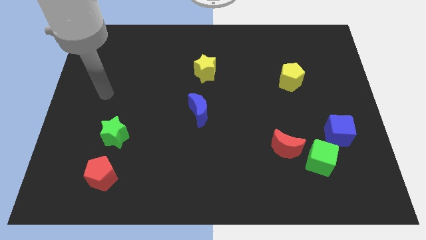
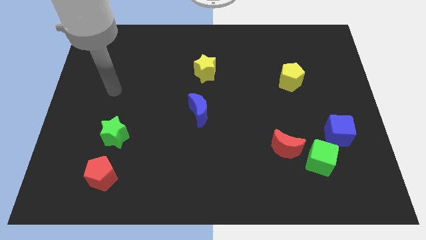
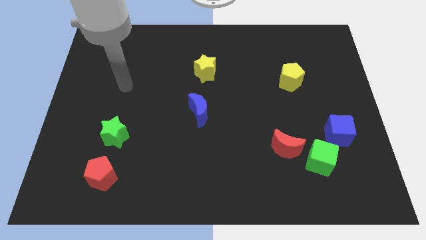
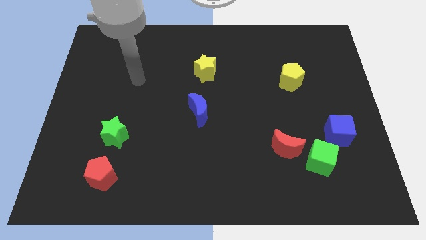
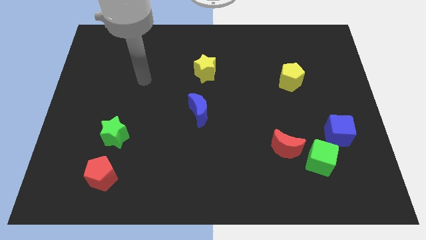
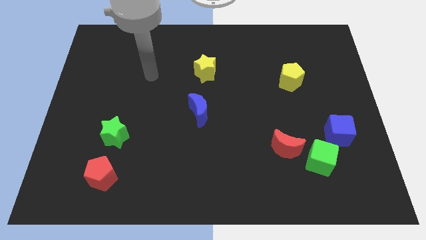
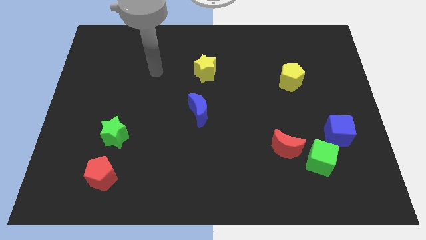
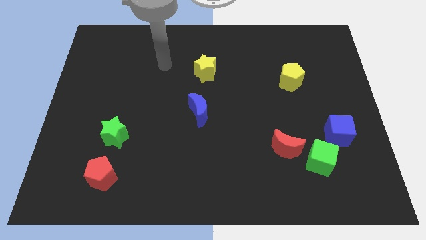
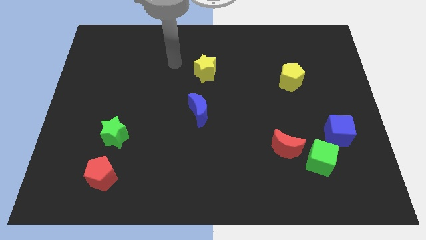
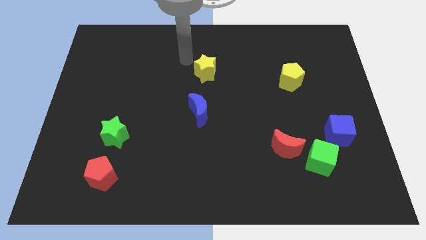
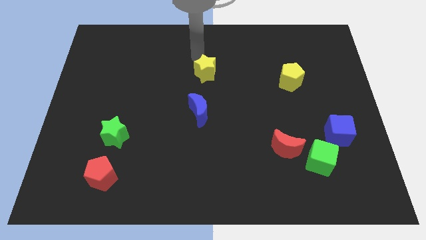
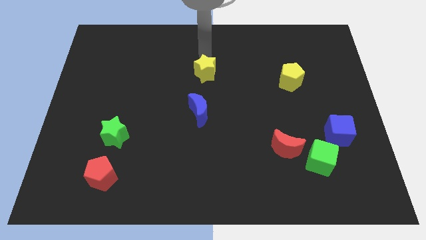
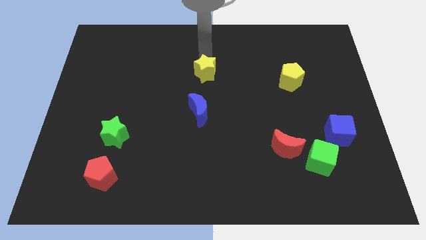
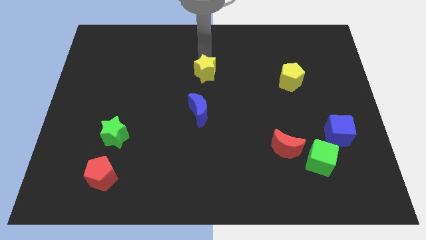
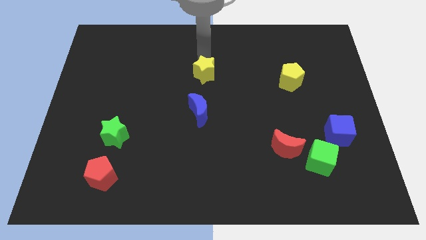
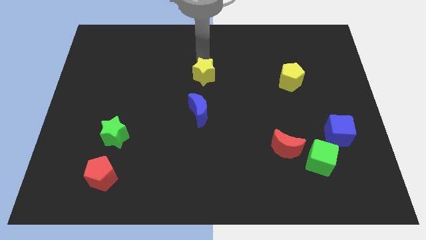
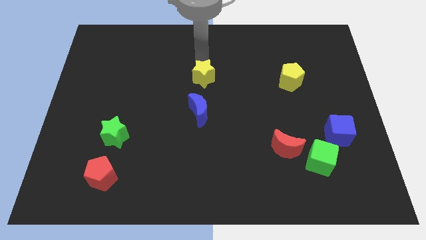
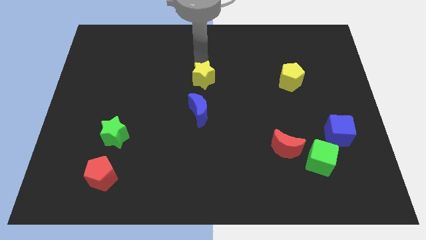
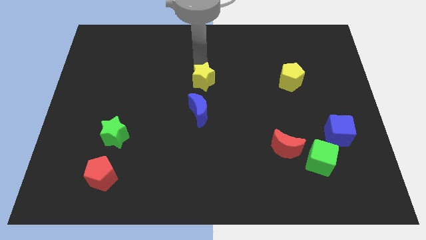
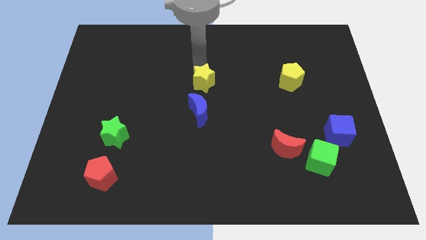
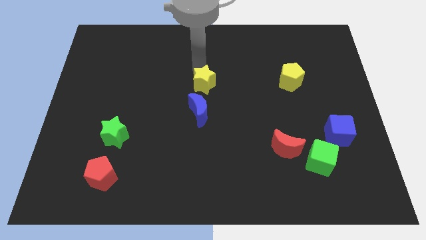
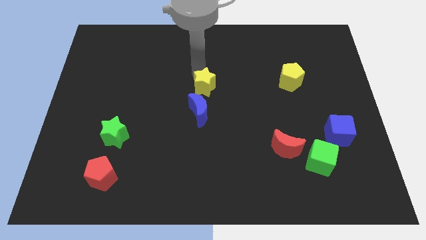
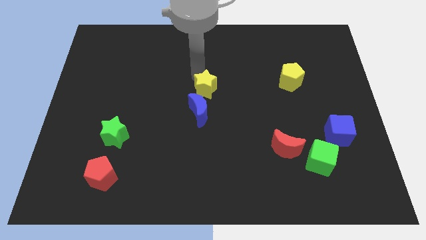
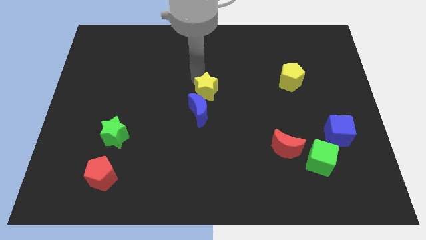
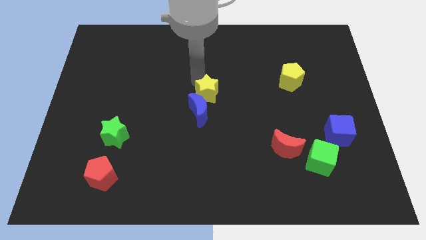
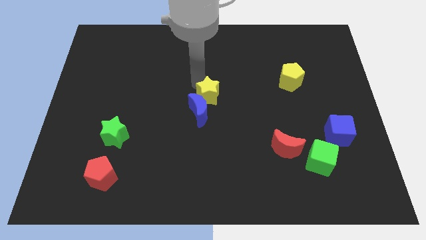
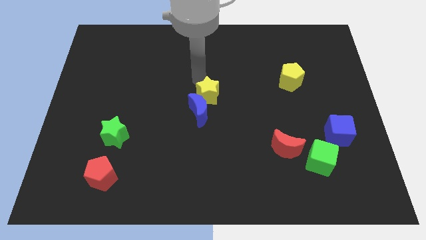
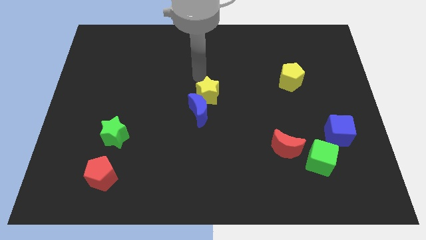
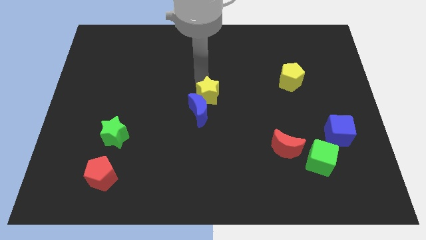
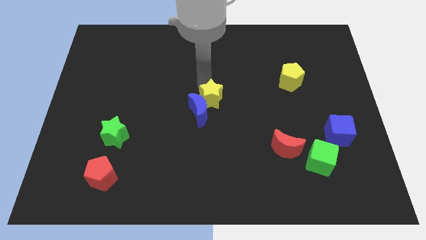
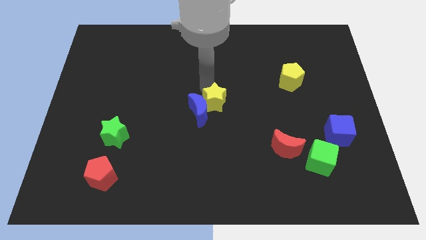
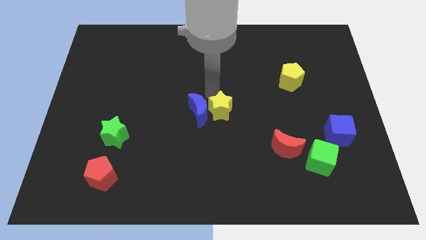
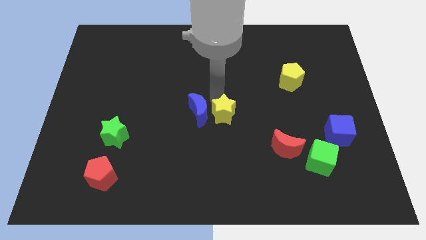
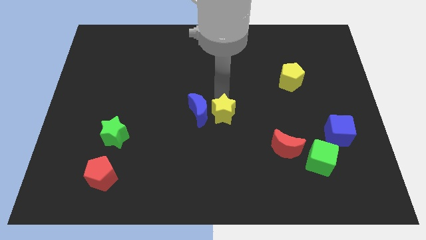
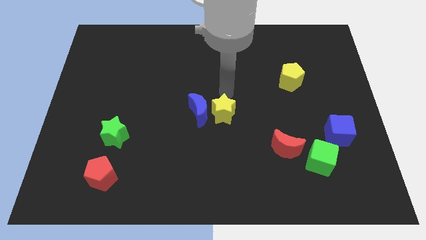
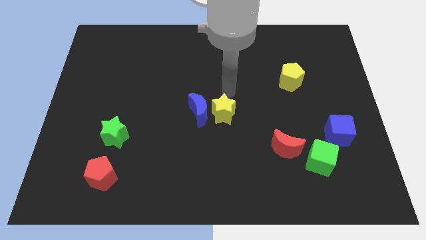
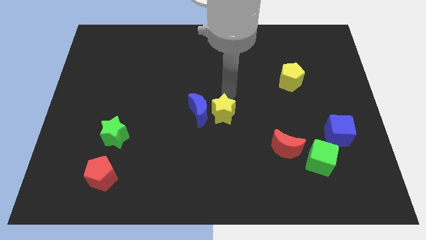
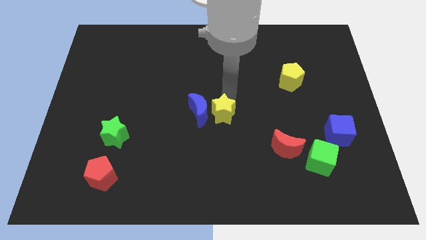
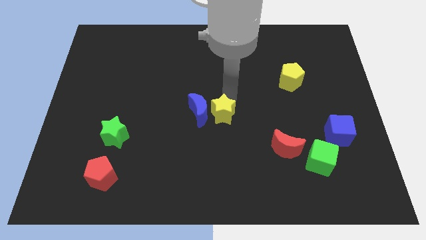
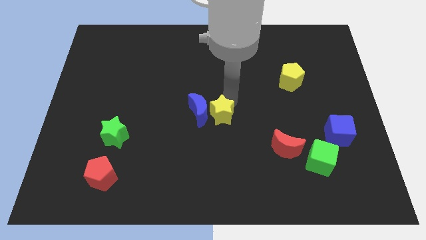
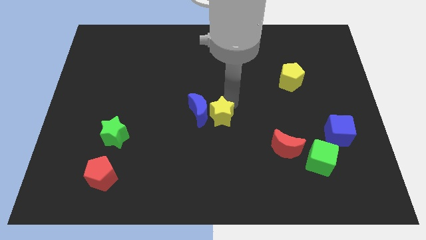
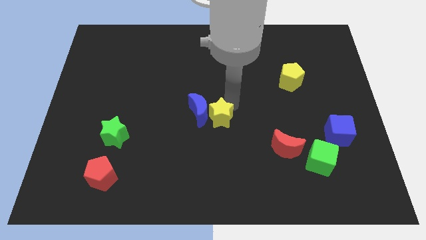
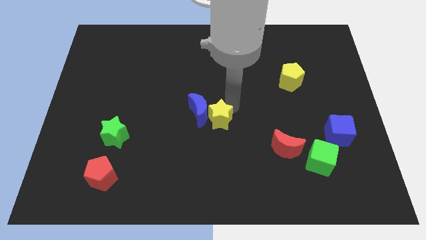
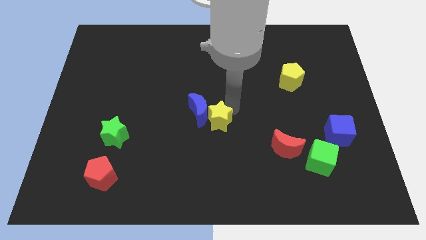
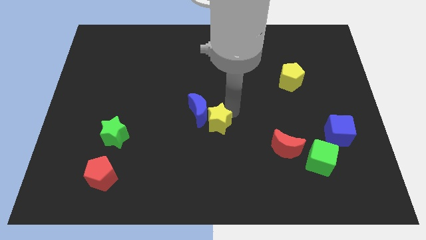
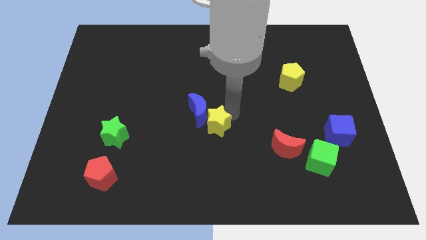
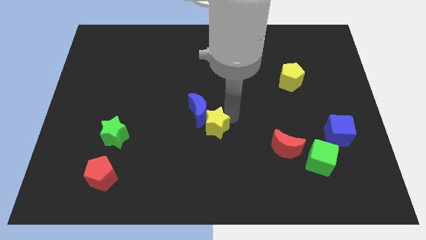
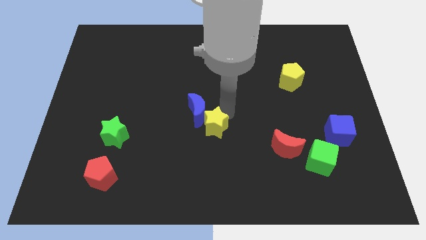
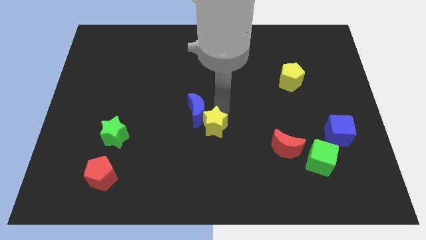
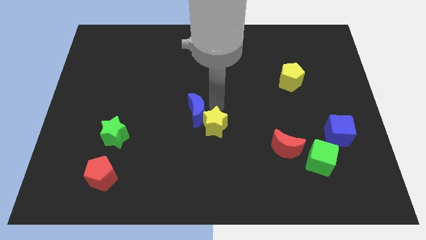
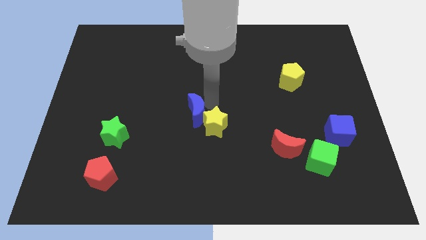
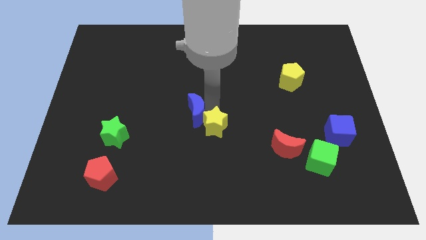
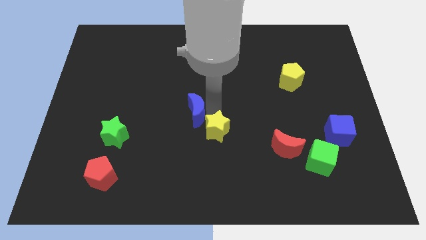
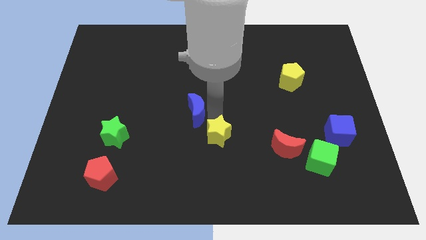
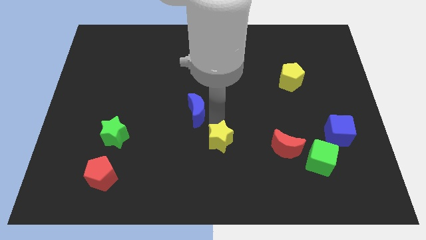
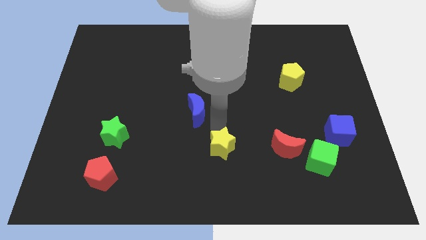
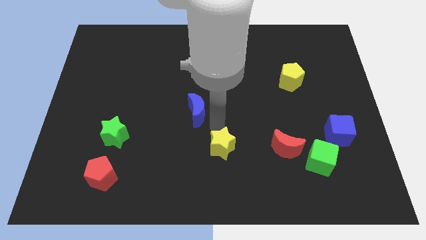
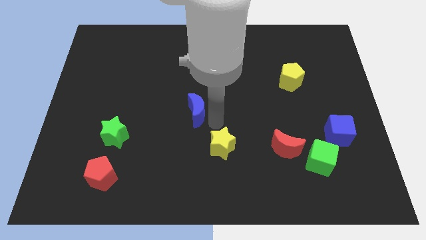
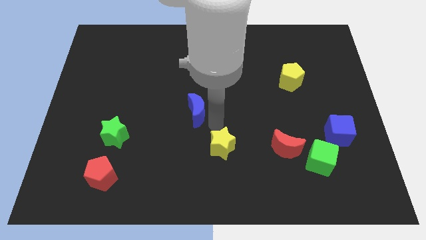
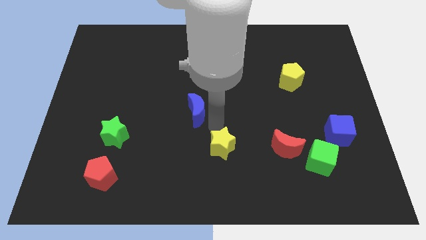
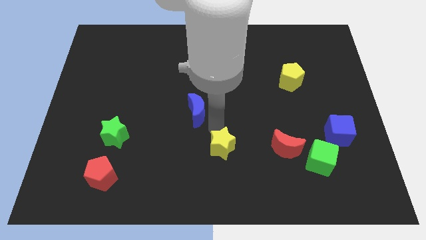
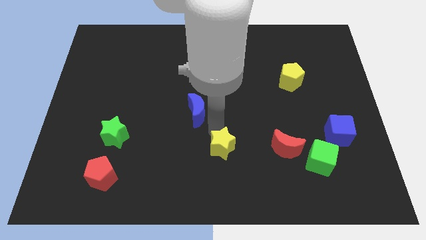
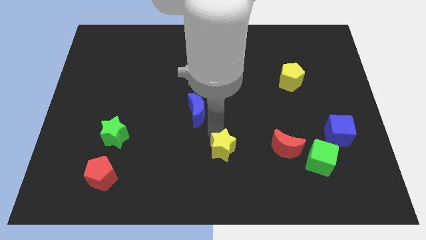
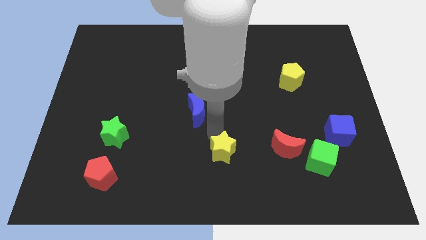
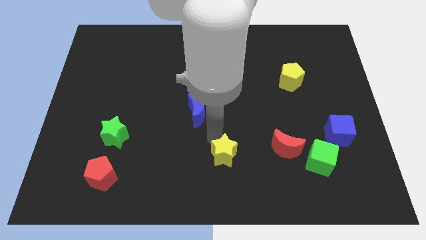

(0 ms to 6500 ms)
slide the yellow star to the bottom side
